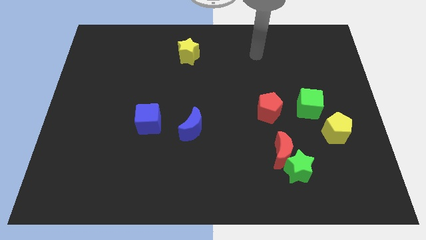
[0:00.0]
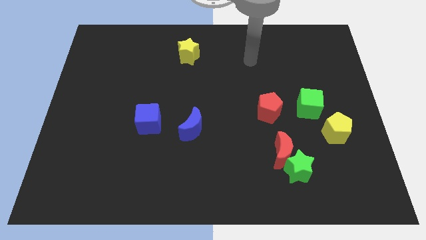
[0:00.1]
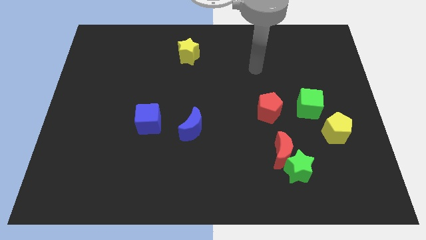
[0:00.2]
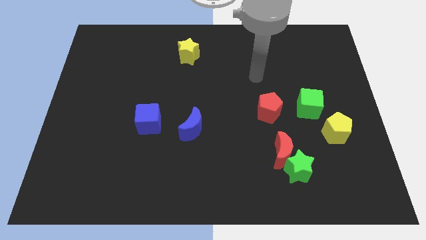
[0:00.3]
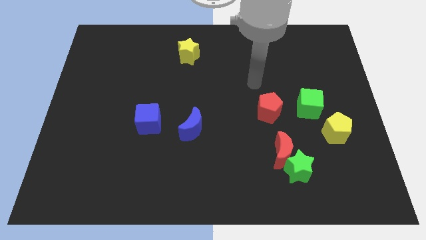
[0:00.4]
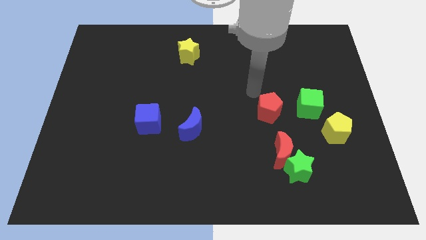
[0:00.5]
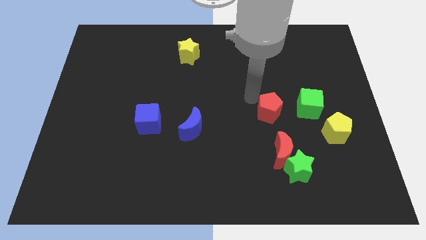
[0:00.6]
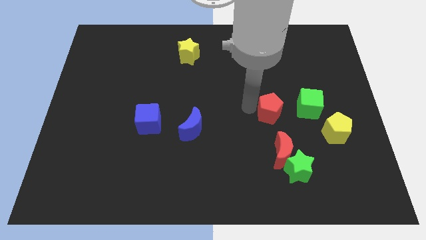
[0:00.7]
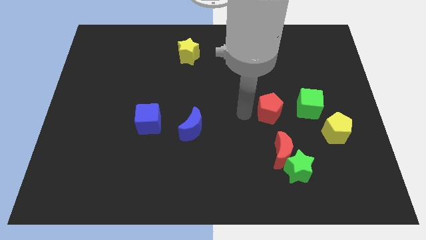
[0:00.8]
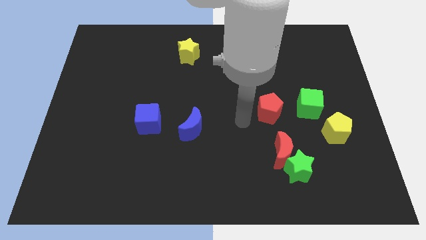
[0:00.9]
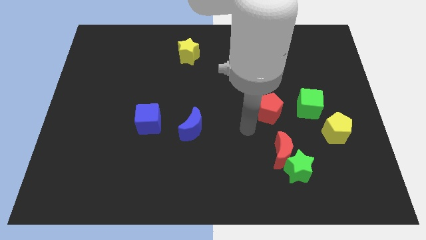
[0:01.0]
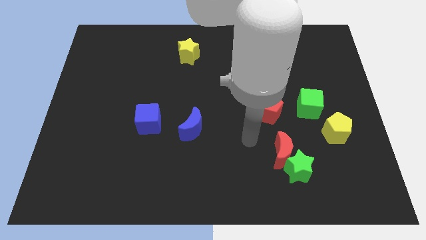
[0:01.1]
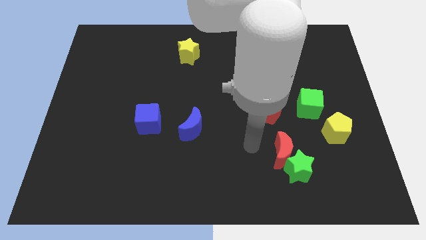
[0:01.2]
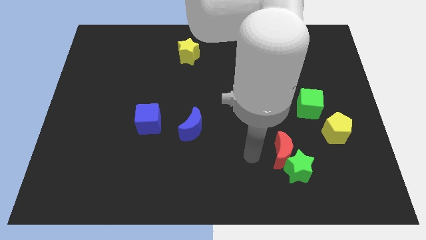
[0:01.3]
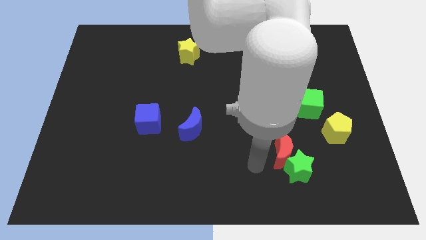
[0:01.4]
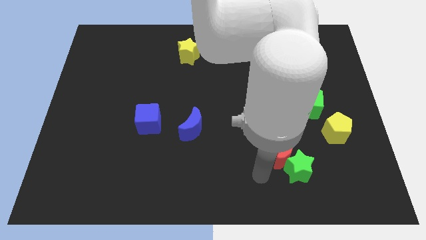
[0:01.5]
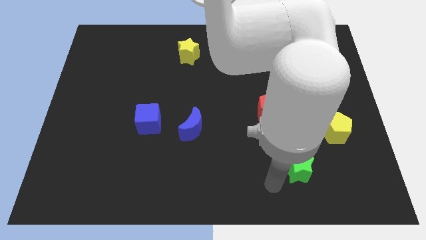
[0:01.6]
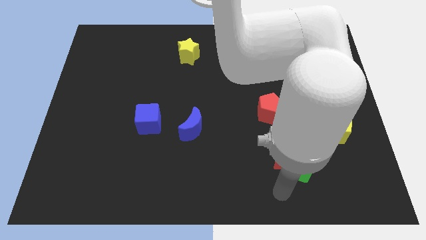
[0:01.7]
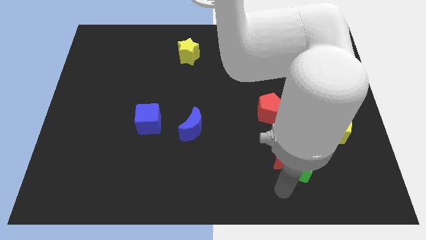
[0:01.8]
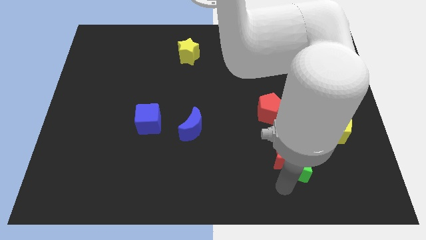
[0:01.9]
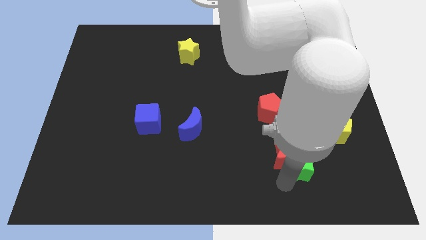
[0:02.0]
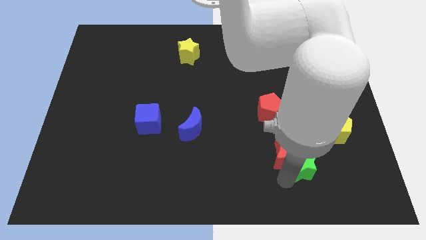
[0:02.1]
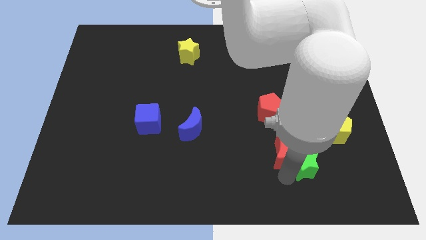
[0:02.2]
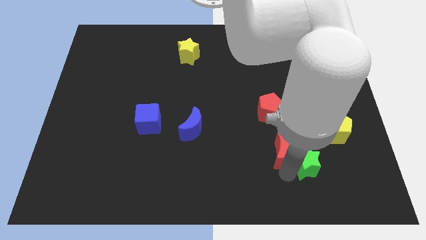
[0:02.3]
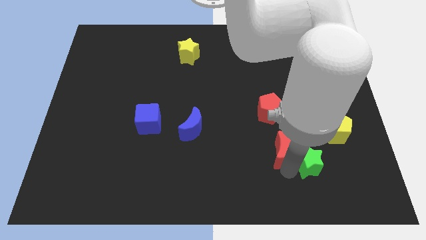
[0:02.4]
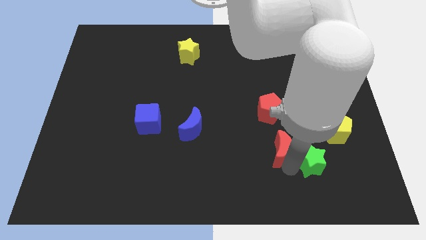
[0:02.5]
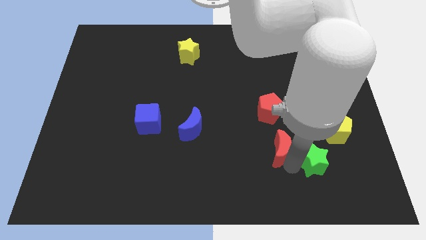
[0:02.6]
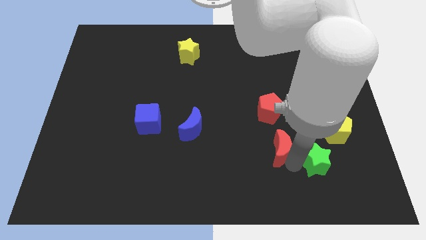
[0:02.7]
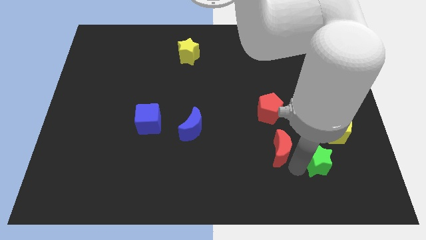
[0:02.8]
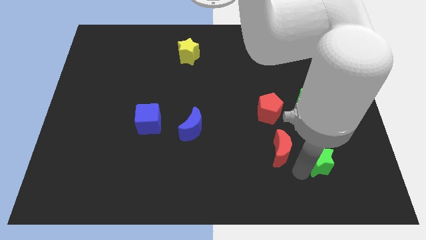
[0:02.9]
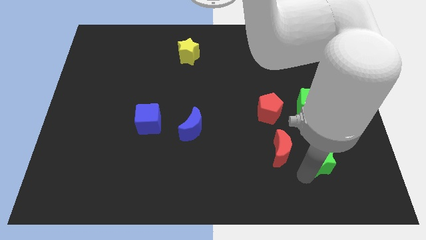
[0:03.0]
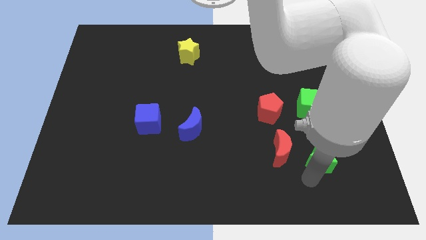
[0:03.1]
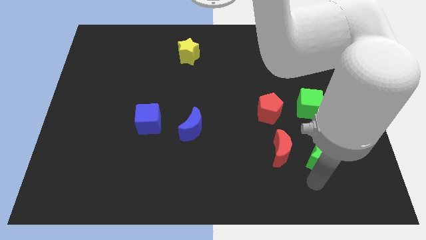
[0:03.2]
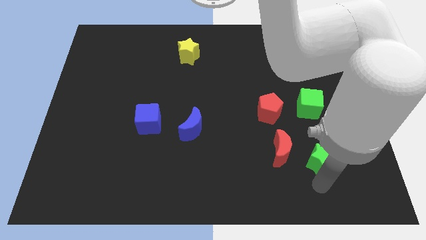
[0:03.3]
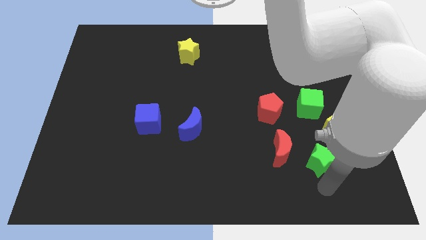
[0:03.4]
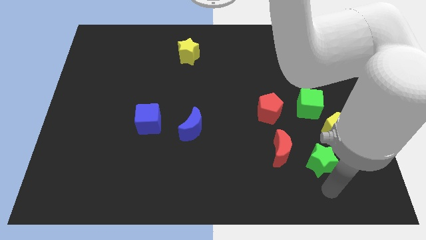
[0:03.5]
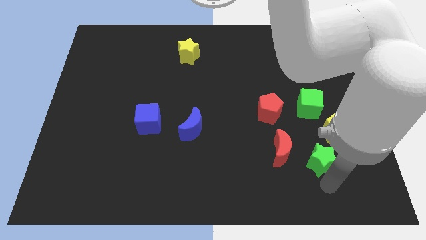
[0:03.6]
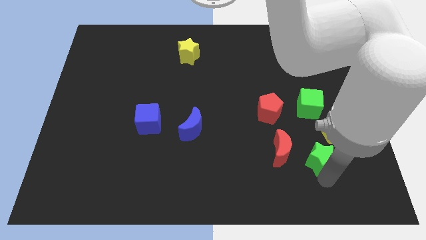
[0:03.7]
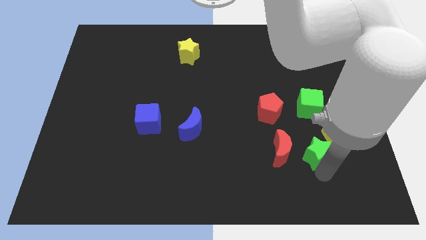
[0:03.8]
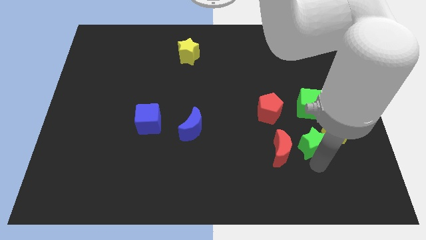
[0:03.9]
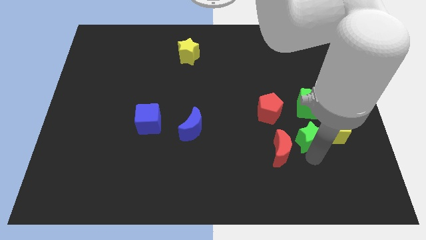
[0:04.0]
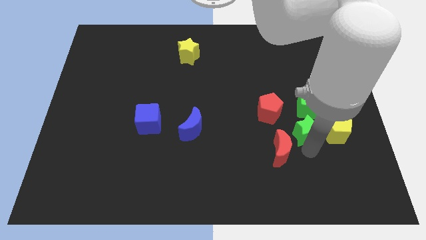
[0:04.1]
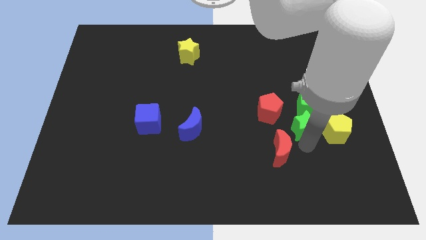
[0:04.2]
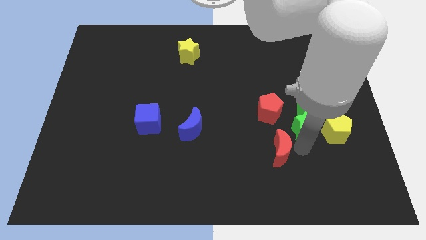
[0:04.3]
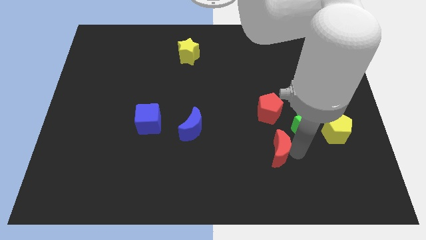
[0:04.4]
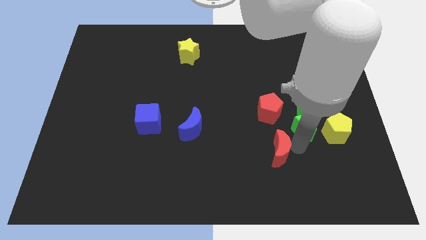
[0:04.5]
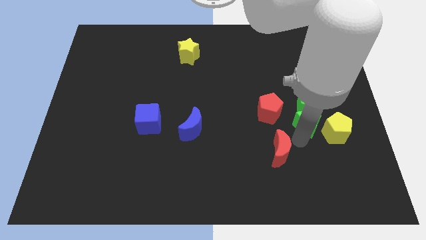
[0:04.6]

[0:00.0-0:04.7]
move the green star towards the green cube

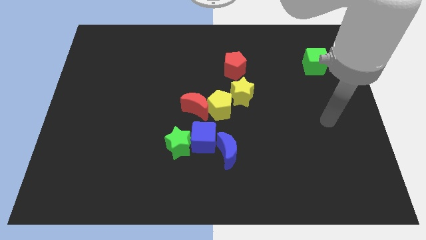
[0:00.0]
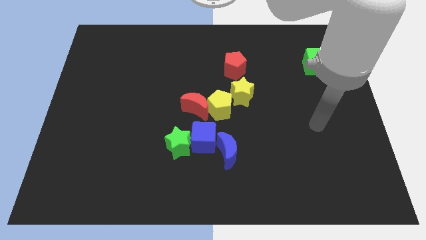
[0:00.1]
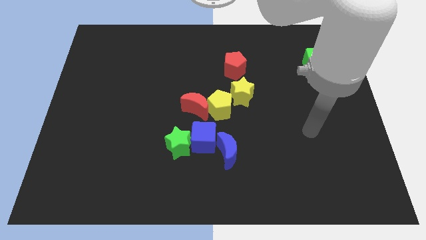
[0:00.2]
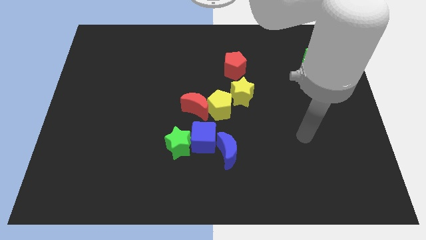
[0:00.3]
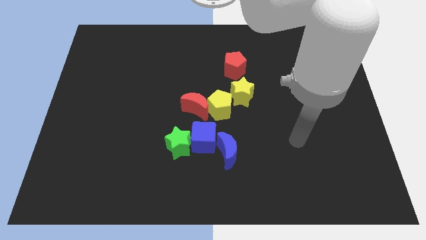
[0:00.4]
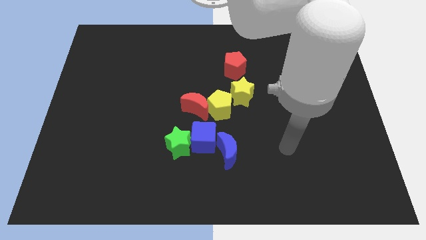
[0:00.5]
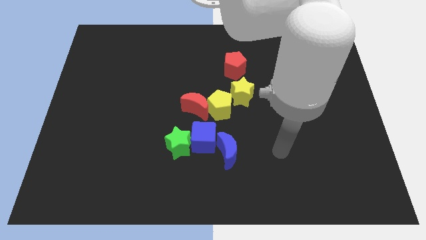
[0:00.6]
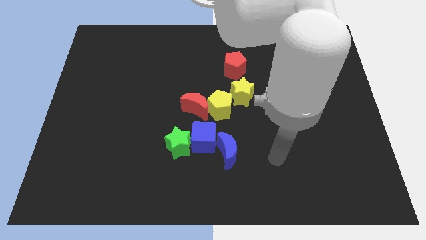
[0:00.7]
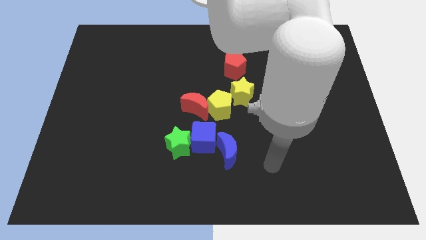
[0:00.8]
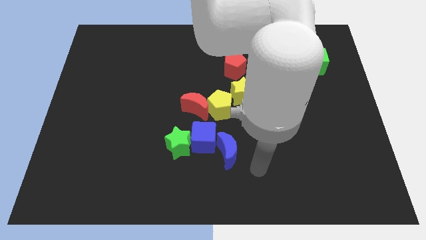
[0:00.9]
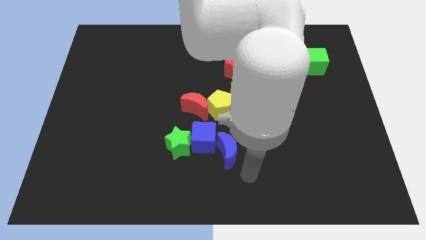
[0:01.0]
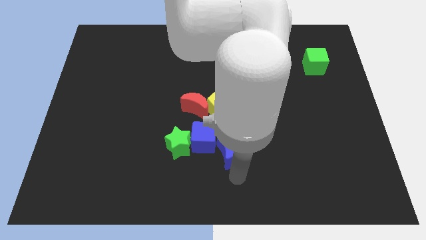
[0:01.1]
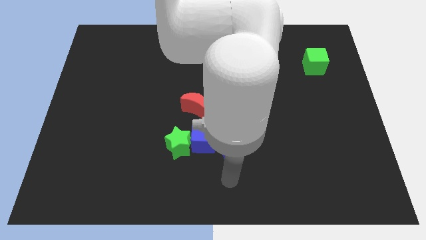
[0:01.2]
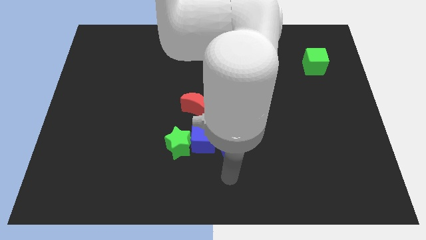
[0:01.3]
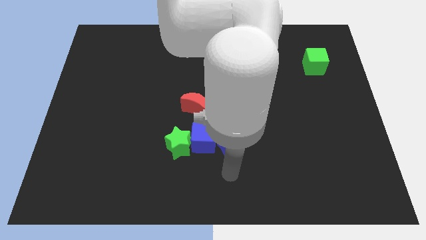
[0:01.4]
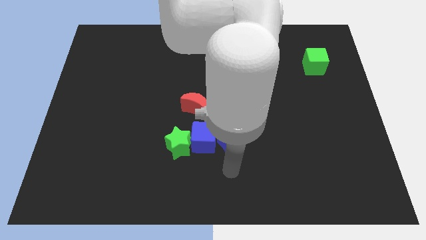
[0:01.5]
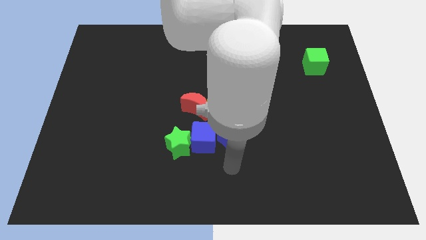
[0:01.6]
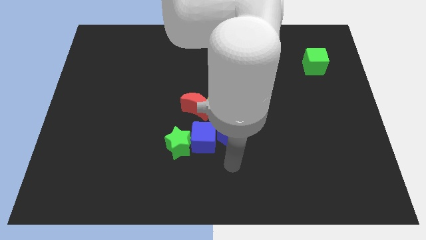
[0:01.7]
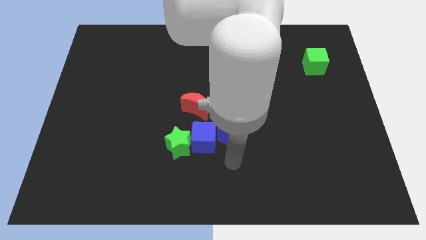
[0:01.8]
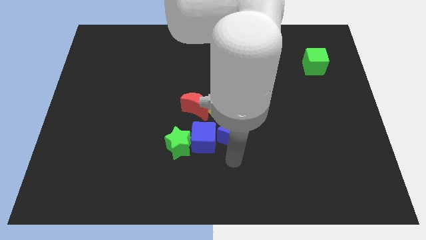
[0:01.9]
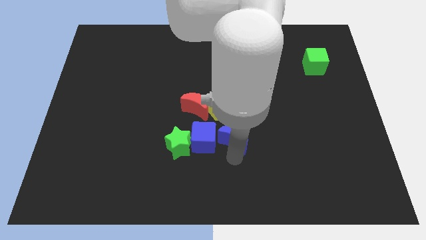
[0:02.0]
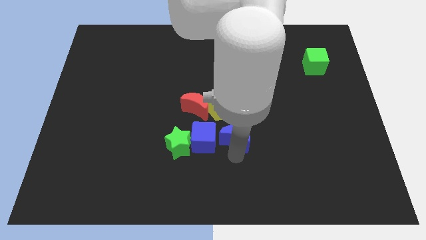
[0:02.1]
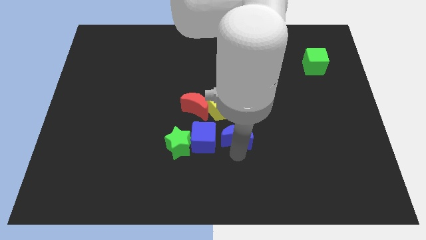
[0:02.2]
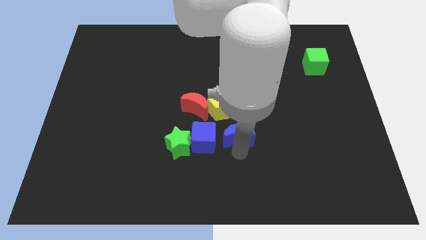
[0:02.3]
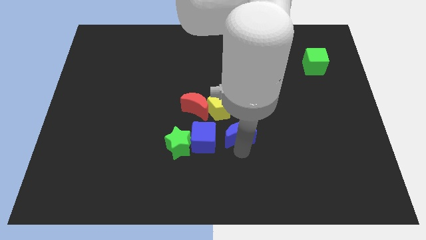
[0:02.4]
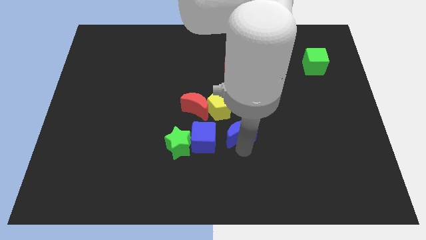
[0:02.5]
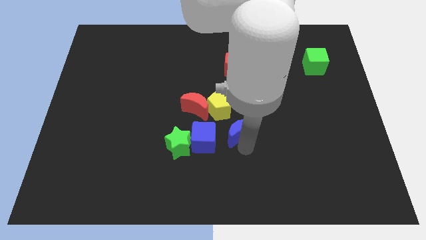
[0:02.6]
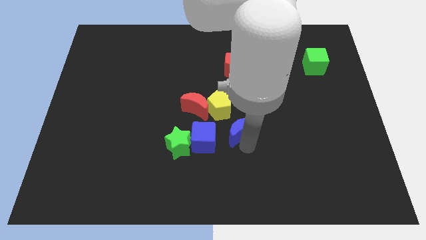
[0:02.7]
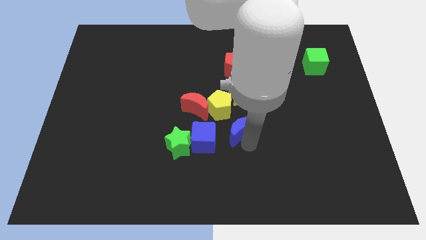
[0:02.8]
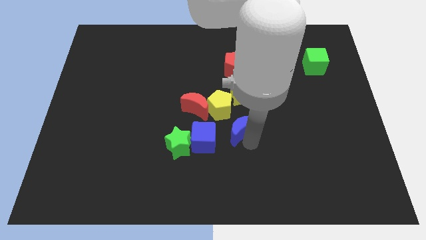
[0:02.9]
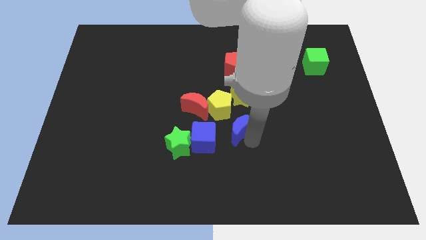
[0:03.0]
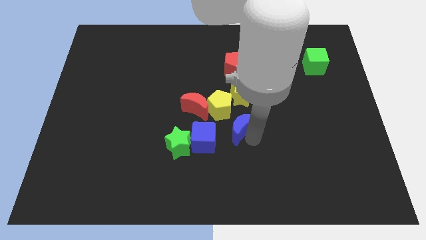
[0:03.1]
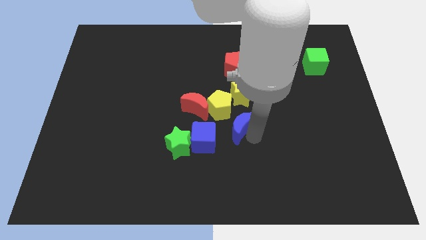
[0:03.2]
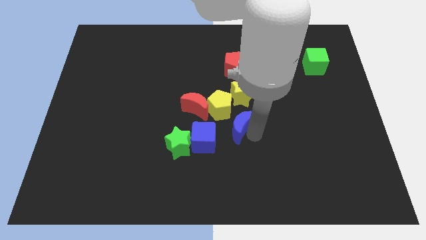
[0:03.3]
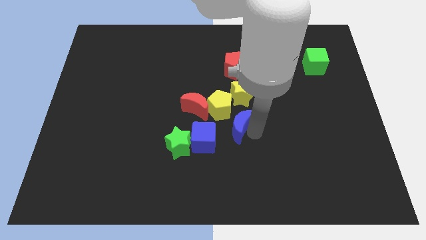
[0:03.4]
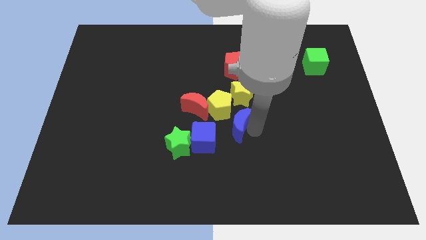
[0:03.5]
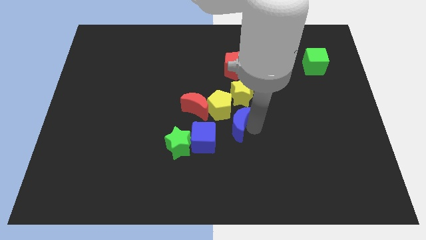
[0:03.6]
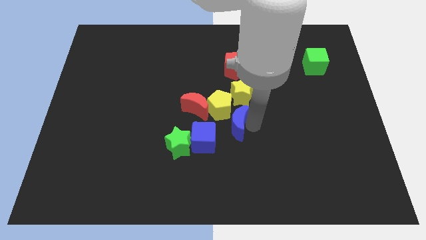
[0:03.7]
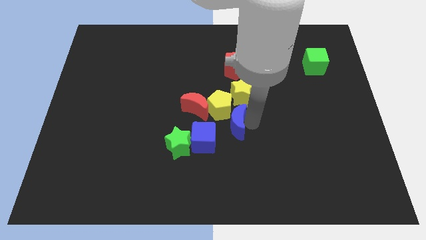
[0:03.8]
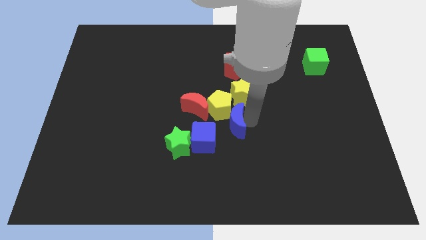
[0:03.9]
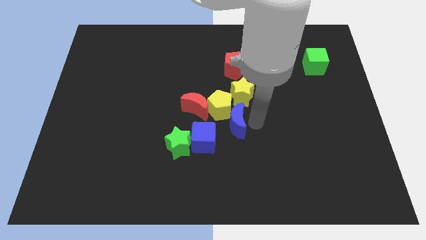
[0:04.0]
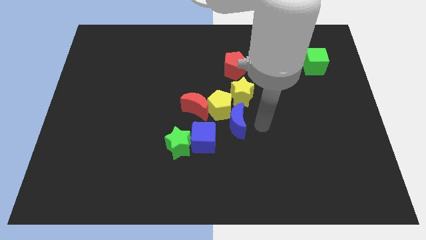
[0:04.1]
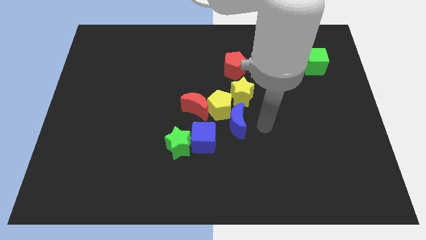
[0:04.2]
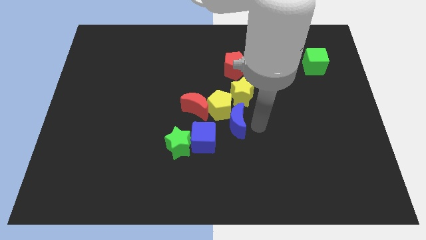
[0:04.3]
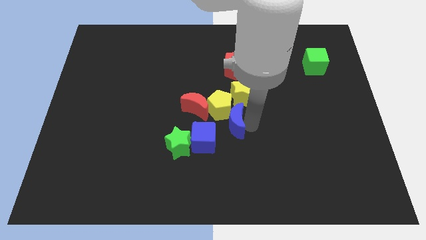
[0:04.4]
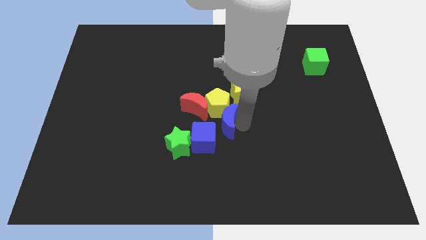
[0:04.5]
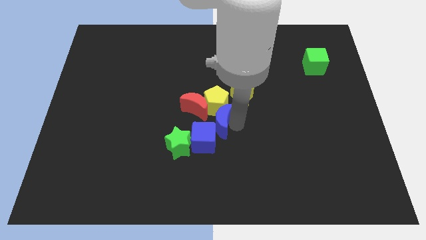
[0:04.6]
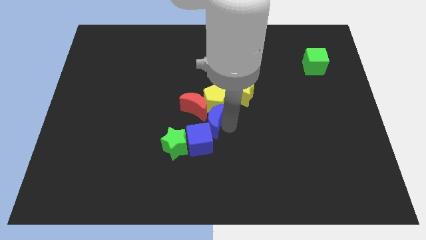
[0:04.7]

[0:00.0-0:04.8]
slide the blue moon towards the red moon
